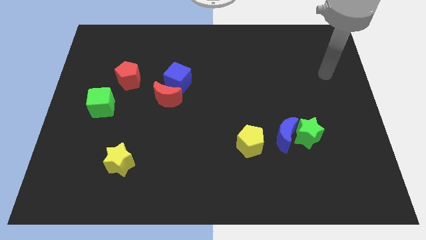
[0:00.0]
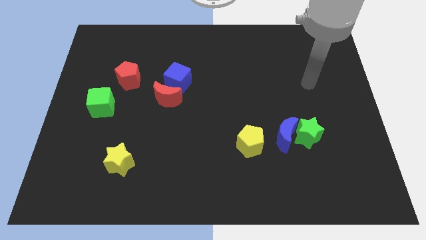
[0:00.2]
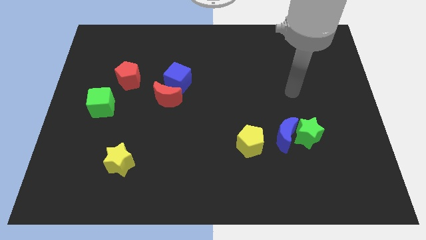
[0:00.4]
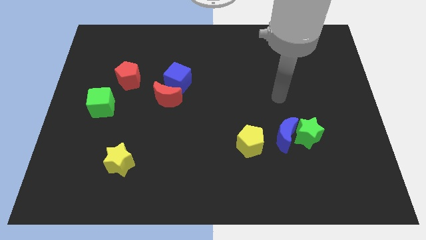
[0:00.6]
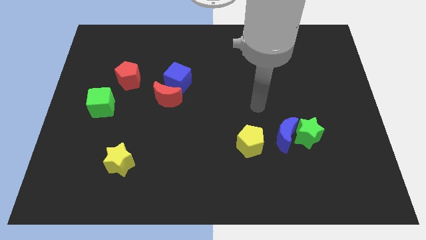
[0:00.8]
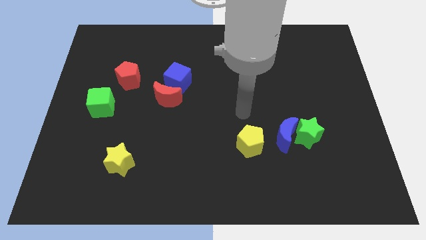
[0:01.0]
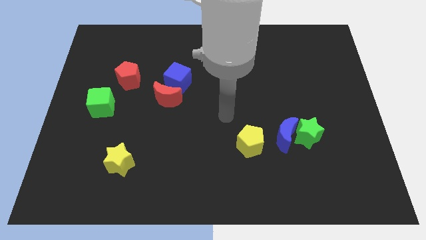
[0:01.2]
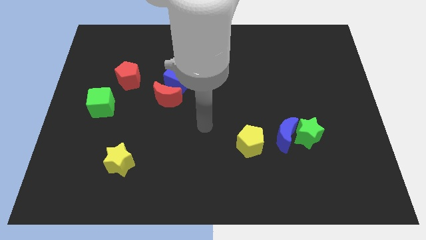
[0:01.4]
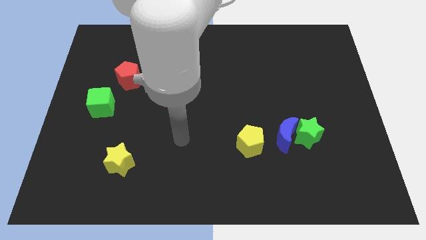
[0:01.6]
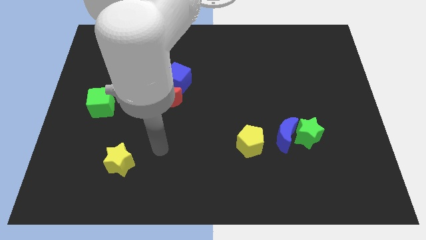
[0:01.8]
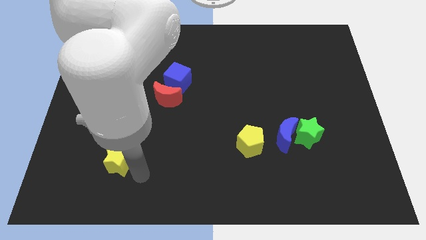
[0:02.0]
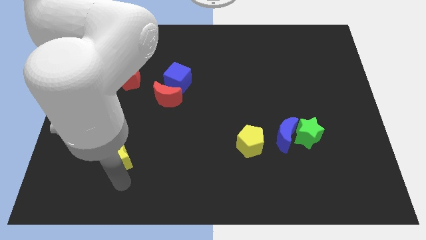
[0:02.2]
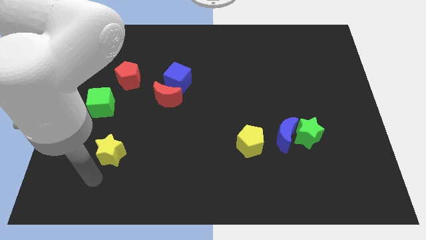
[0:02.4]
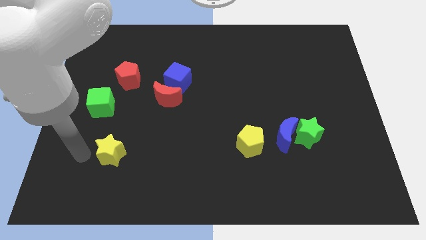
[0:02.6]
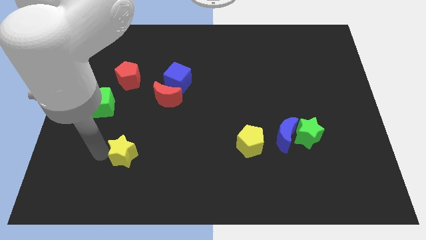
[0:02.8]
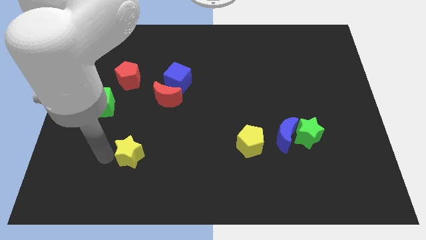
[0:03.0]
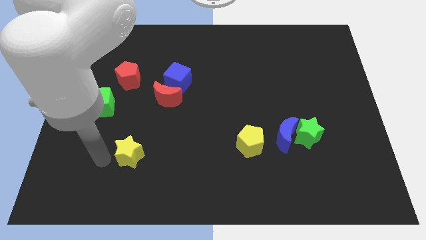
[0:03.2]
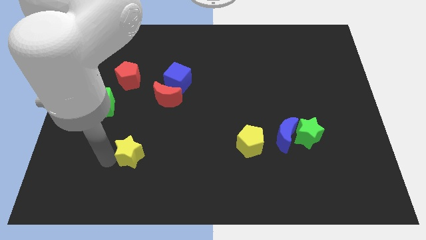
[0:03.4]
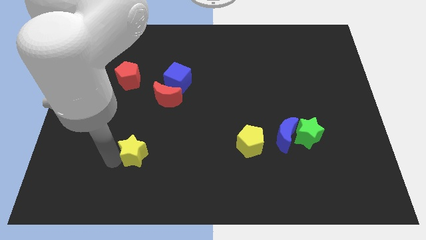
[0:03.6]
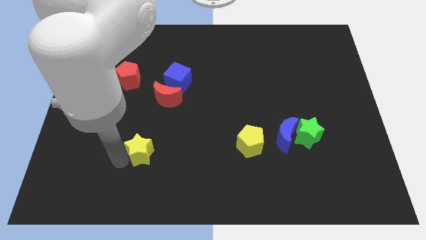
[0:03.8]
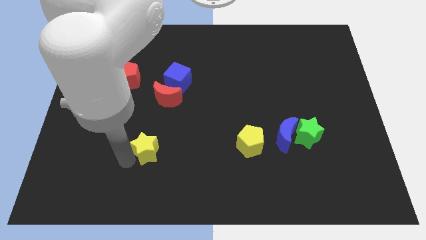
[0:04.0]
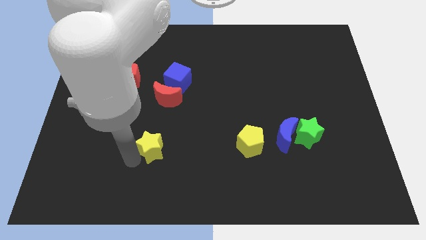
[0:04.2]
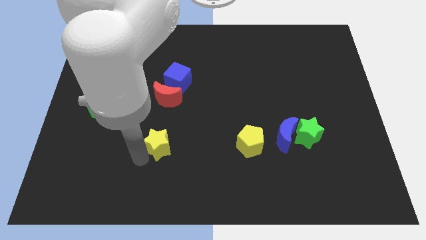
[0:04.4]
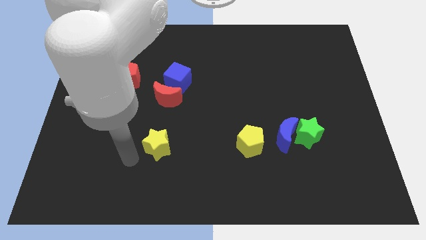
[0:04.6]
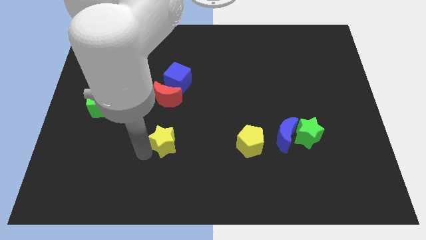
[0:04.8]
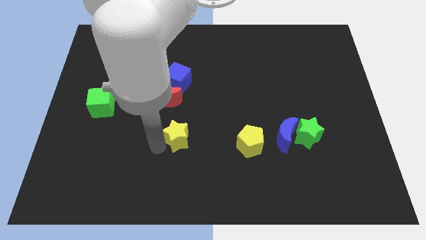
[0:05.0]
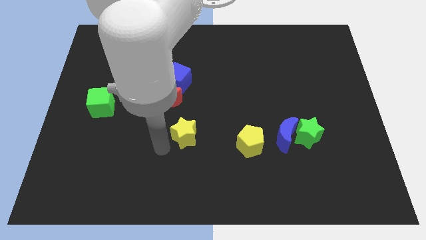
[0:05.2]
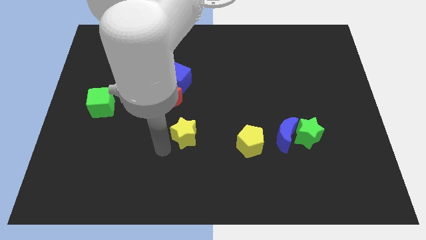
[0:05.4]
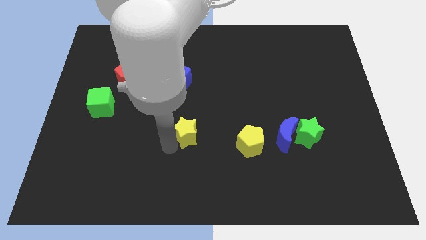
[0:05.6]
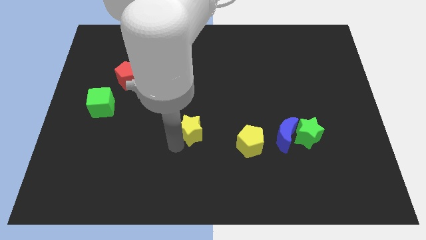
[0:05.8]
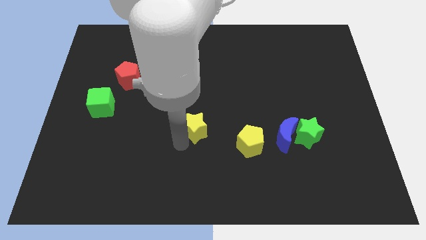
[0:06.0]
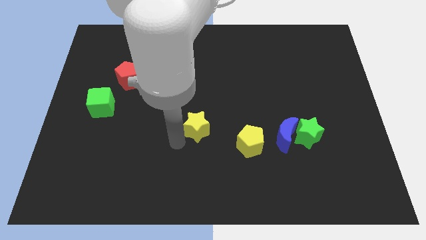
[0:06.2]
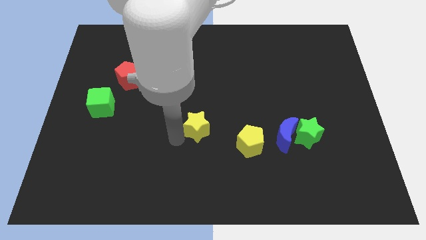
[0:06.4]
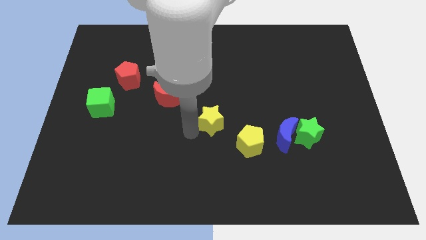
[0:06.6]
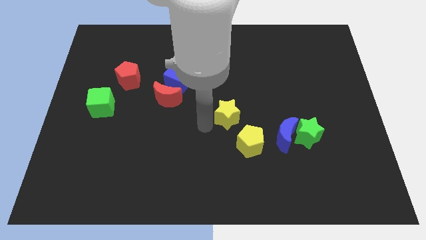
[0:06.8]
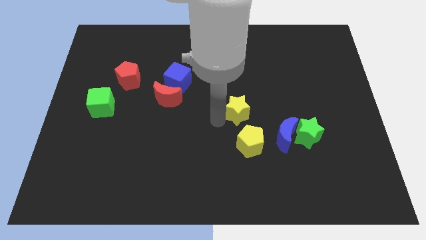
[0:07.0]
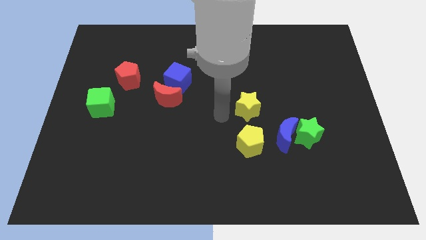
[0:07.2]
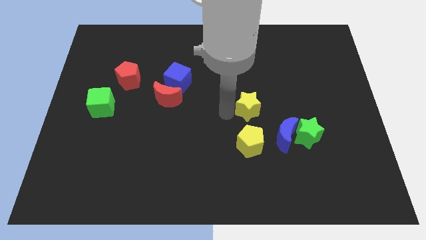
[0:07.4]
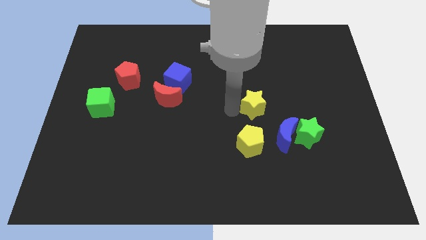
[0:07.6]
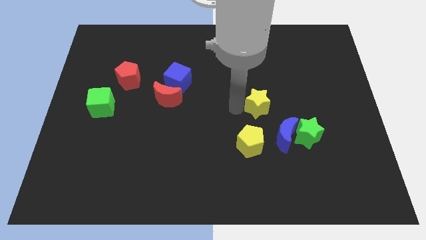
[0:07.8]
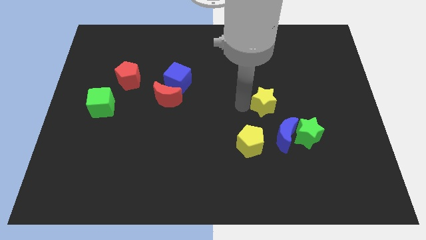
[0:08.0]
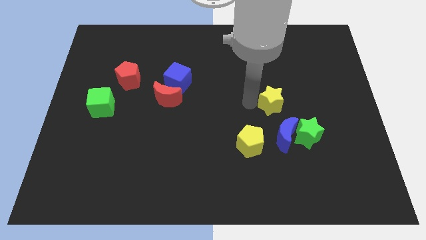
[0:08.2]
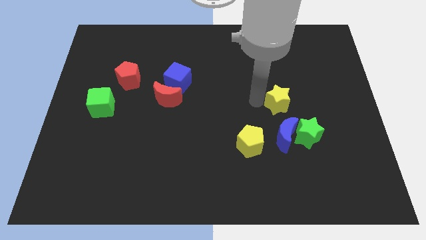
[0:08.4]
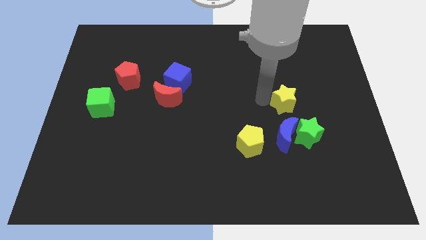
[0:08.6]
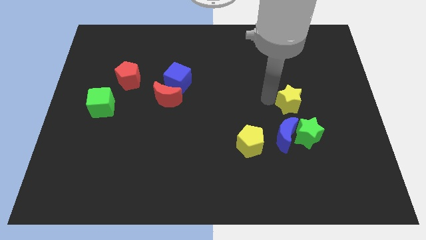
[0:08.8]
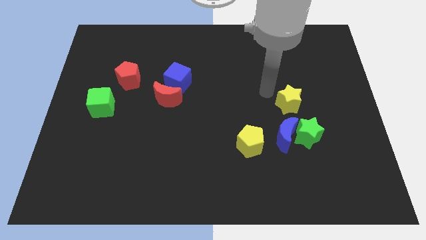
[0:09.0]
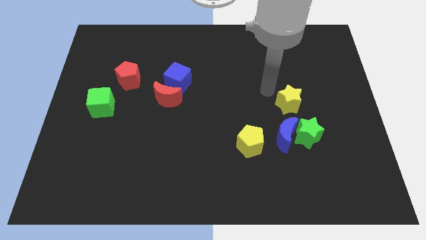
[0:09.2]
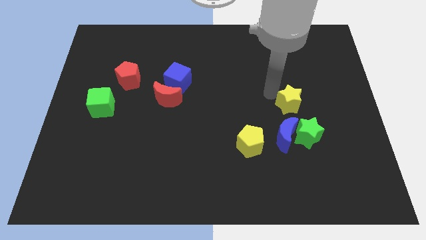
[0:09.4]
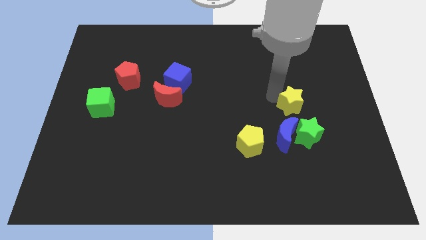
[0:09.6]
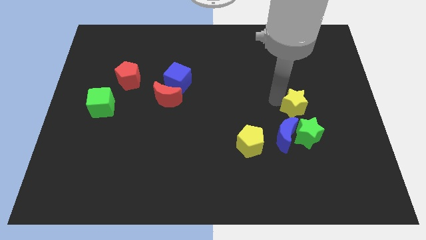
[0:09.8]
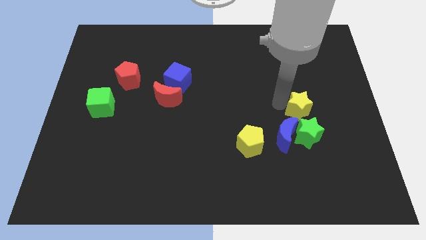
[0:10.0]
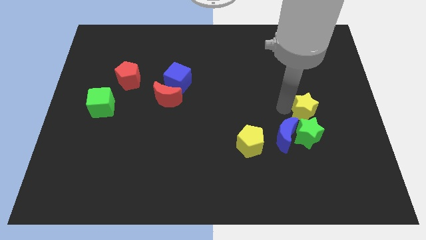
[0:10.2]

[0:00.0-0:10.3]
slide the yellow star to the top right side of the green star

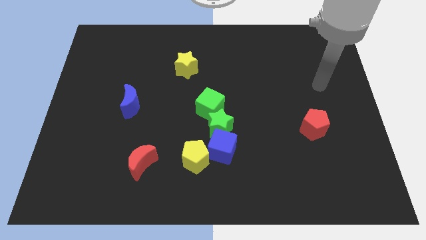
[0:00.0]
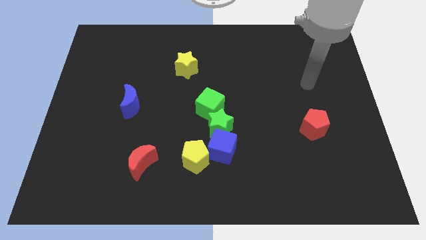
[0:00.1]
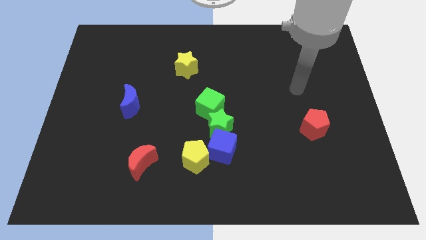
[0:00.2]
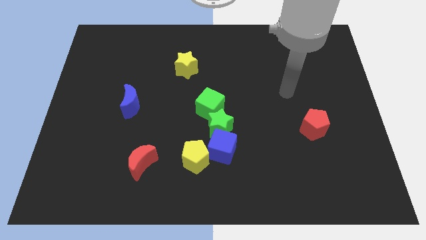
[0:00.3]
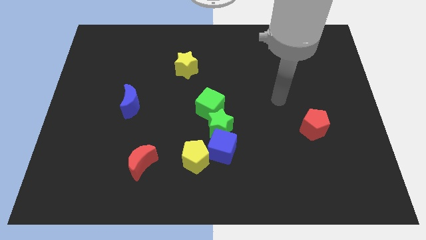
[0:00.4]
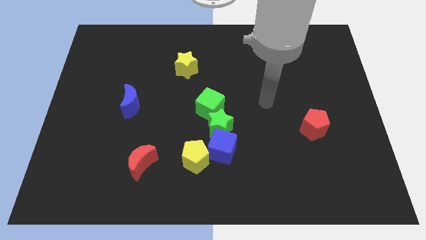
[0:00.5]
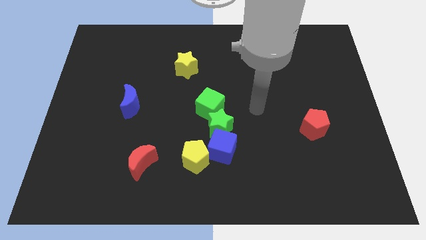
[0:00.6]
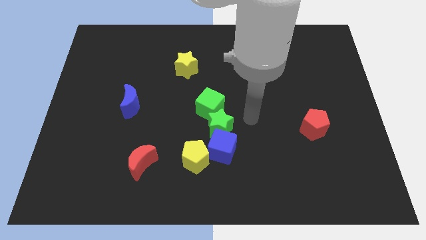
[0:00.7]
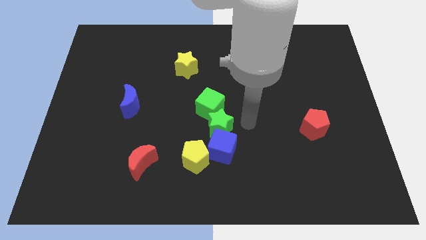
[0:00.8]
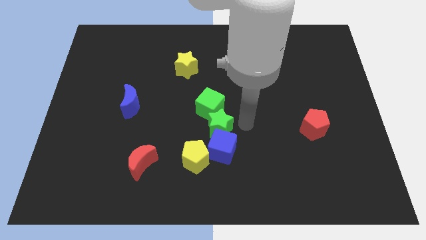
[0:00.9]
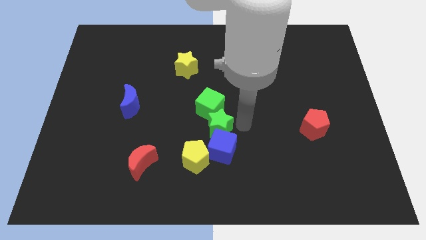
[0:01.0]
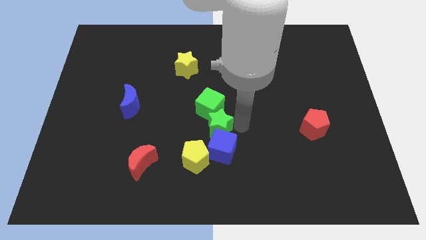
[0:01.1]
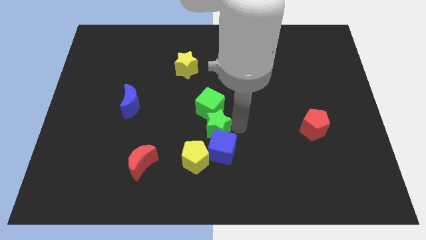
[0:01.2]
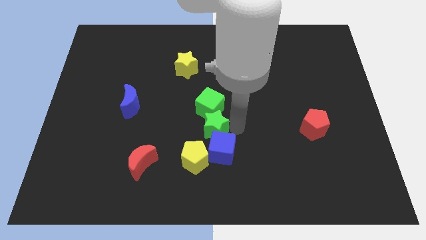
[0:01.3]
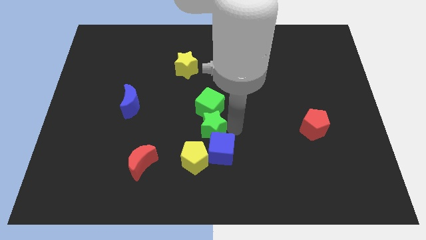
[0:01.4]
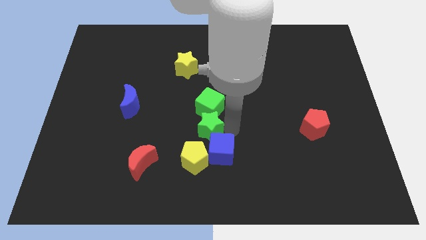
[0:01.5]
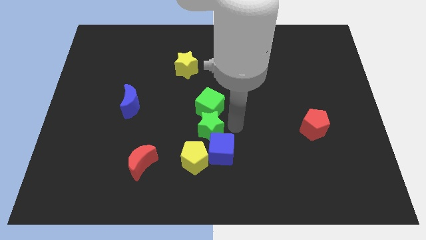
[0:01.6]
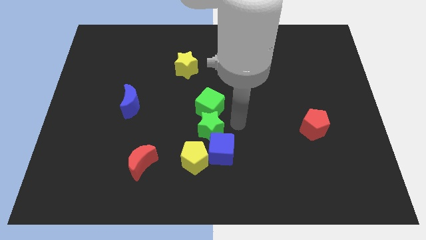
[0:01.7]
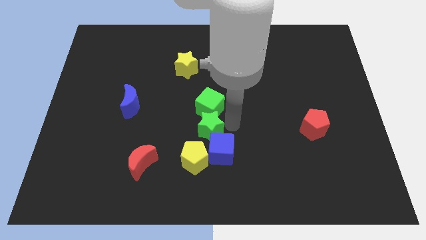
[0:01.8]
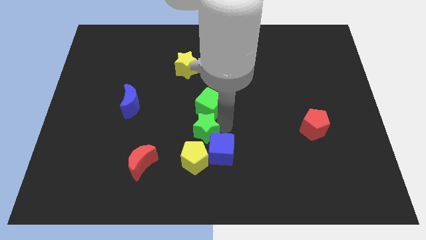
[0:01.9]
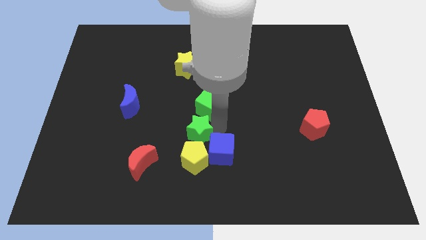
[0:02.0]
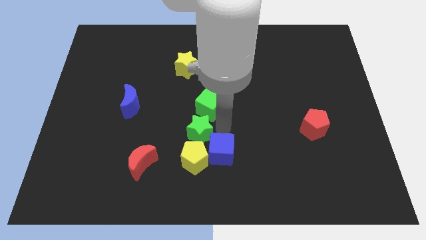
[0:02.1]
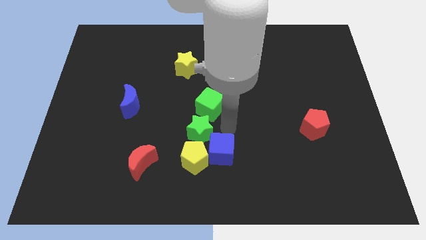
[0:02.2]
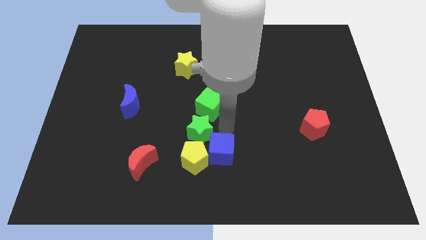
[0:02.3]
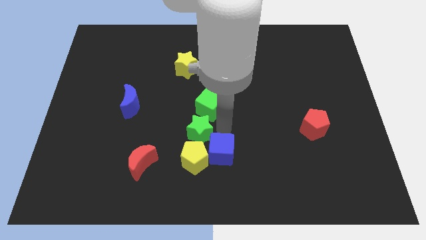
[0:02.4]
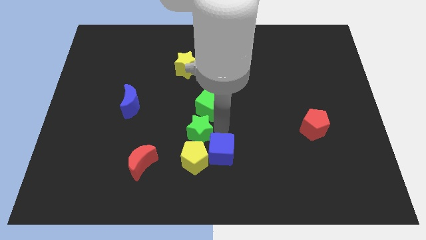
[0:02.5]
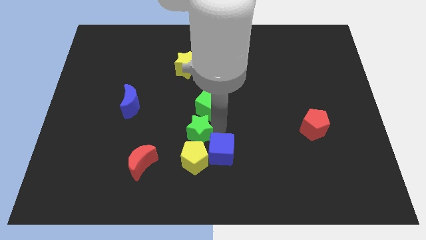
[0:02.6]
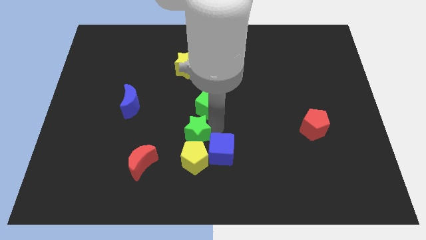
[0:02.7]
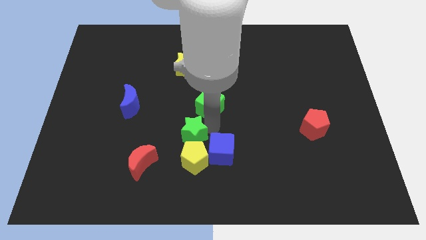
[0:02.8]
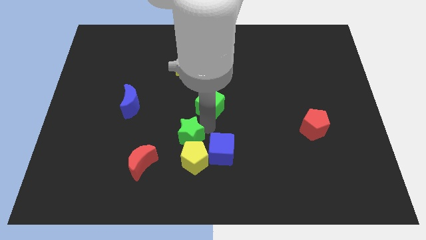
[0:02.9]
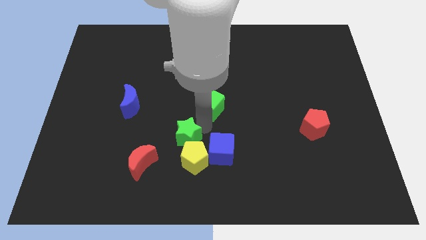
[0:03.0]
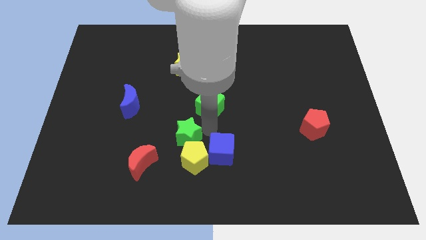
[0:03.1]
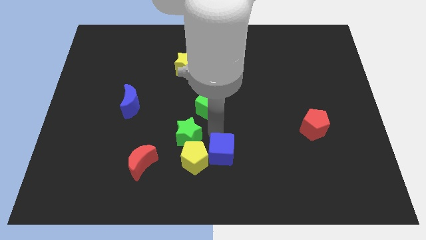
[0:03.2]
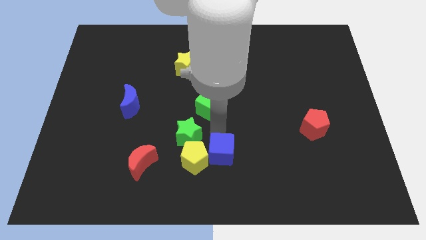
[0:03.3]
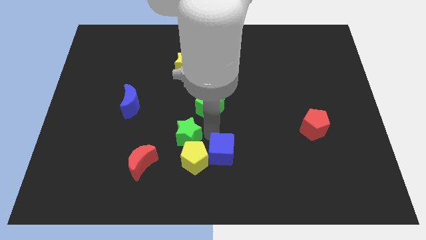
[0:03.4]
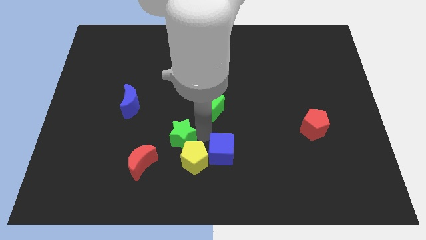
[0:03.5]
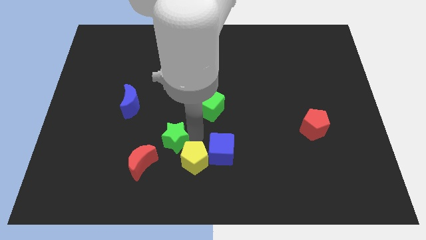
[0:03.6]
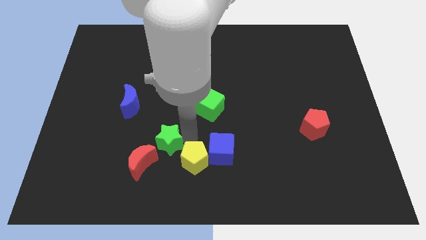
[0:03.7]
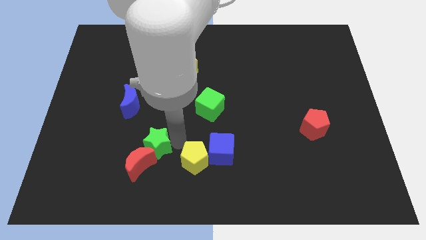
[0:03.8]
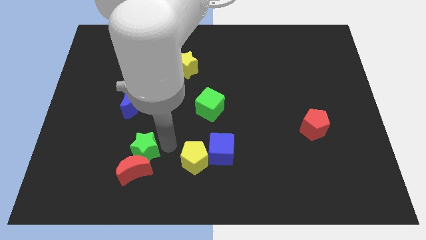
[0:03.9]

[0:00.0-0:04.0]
slide the green star to the top left side of the red moon
